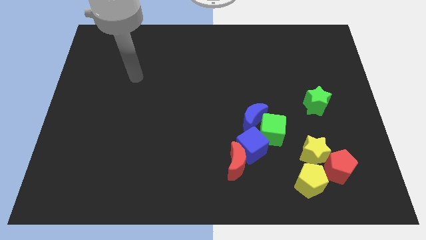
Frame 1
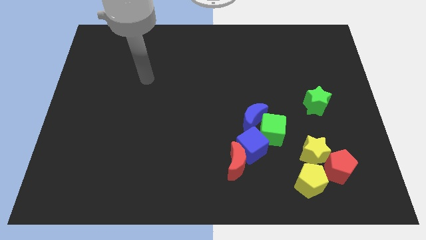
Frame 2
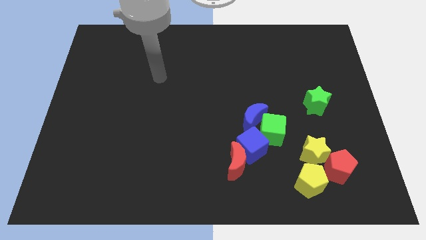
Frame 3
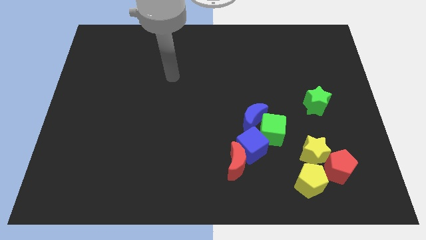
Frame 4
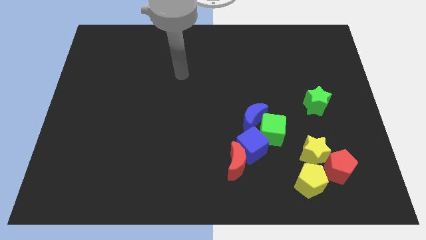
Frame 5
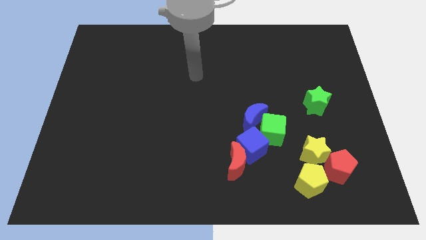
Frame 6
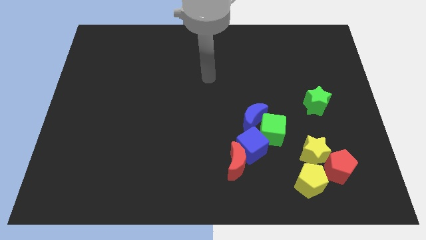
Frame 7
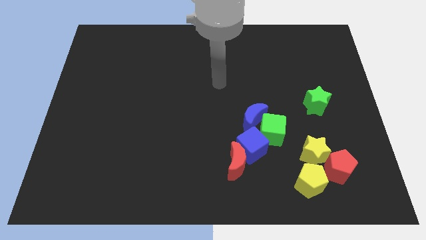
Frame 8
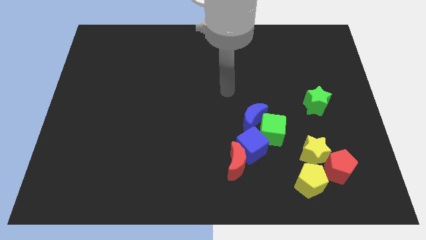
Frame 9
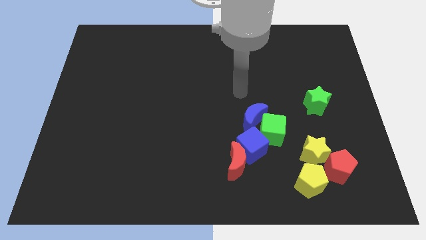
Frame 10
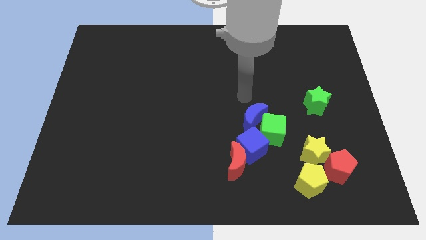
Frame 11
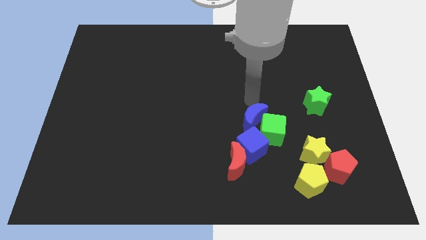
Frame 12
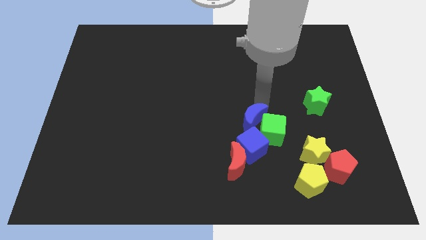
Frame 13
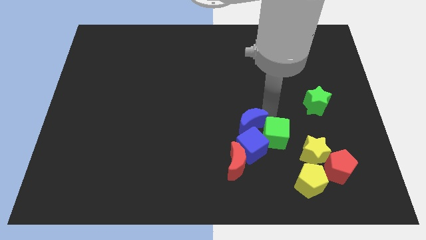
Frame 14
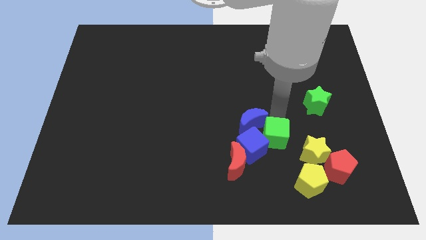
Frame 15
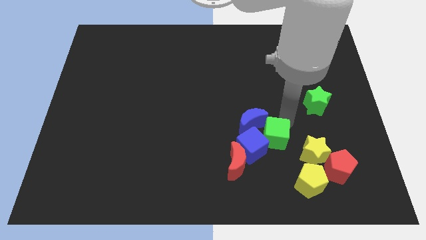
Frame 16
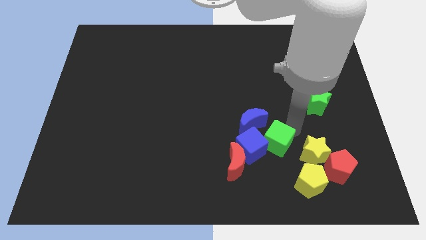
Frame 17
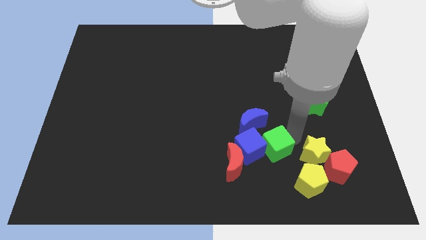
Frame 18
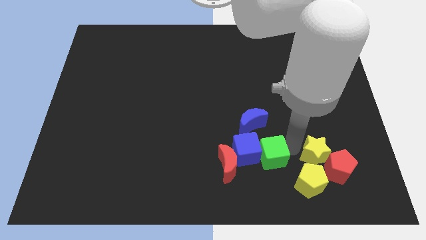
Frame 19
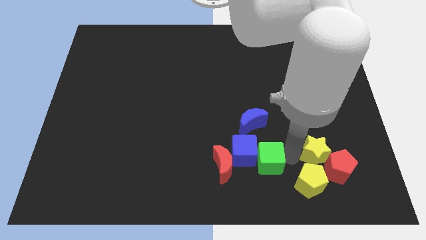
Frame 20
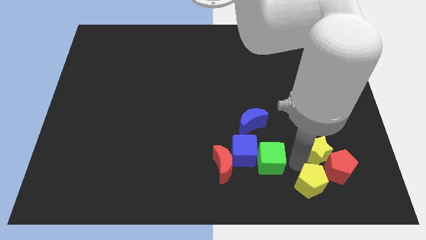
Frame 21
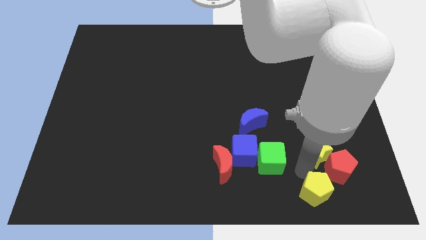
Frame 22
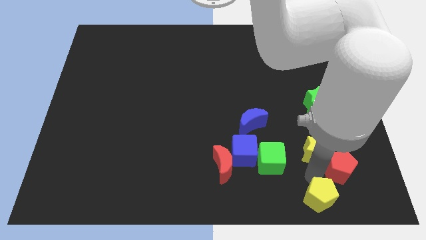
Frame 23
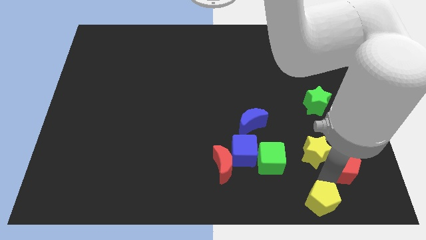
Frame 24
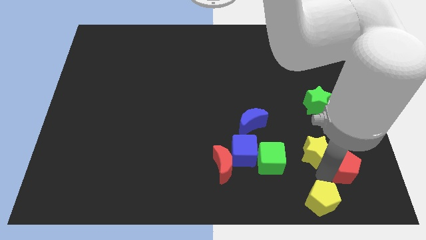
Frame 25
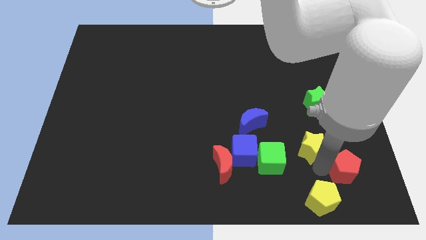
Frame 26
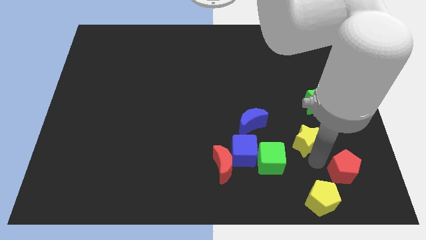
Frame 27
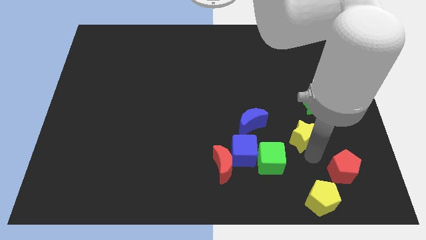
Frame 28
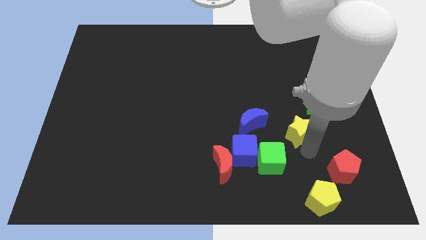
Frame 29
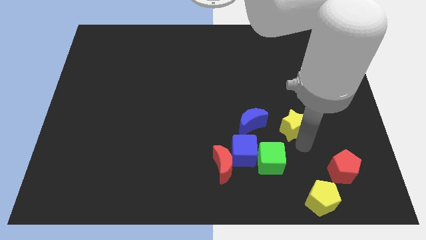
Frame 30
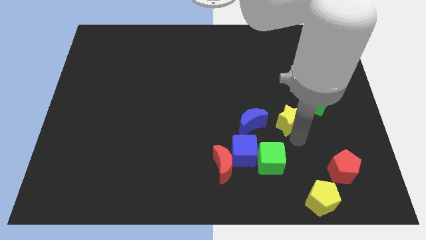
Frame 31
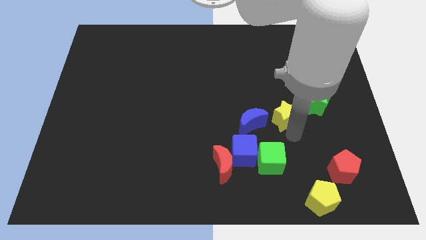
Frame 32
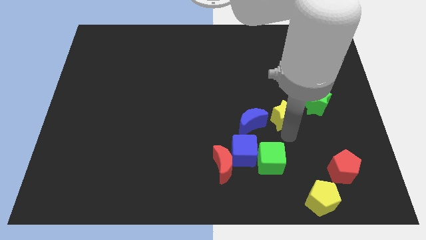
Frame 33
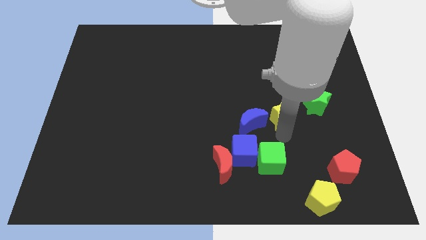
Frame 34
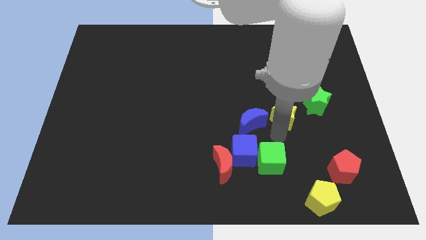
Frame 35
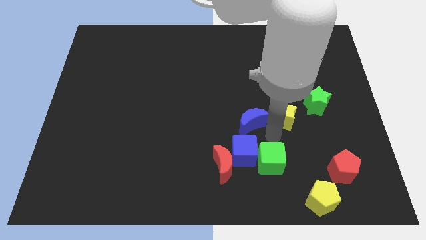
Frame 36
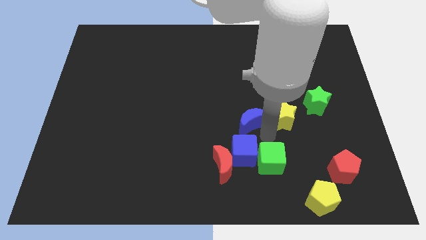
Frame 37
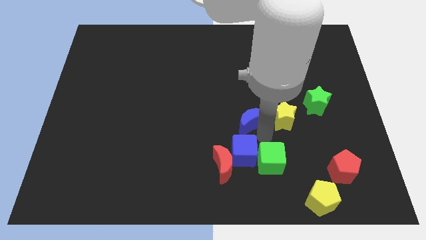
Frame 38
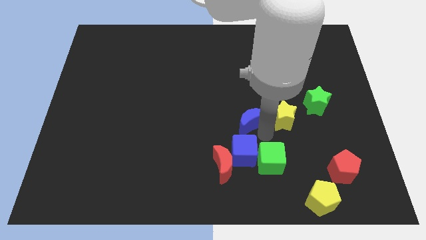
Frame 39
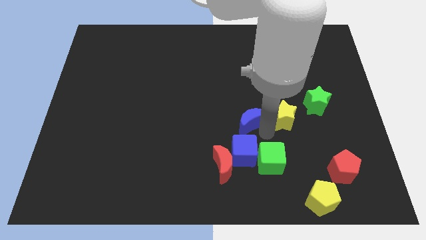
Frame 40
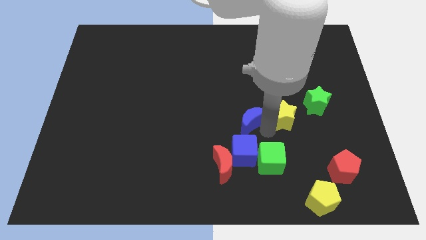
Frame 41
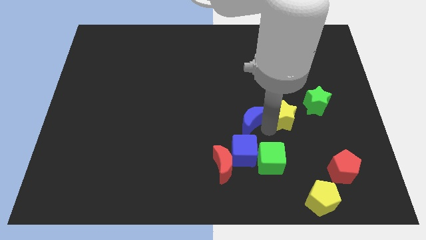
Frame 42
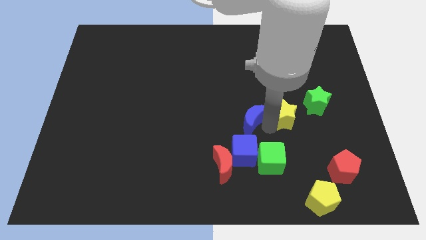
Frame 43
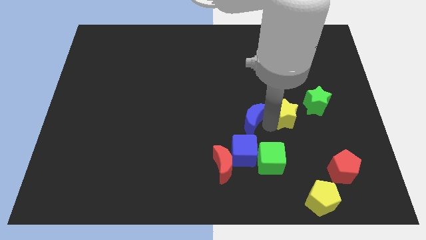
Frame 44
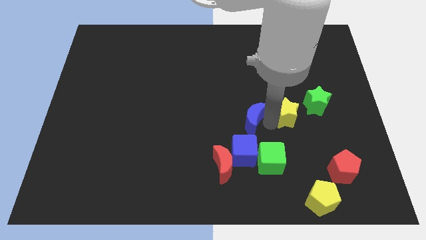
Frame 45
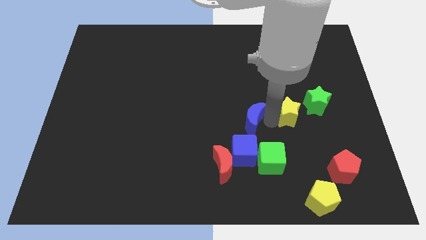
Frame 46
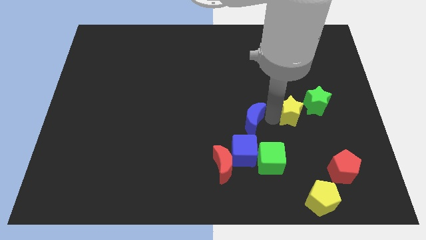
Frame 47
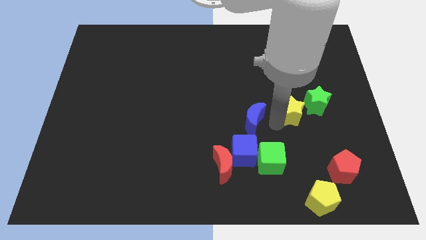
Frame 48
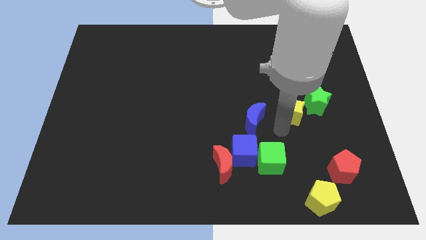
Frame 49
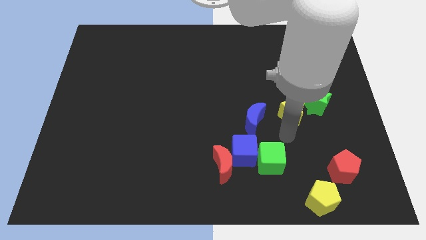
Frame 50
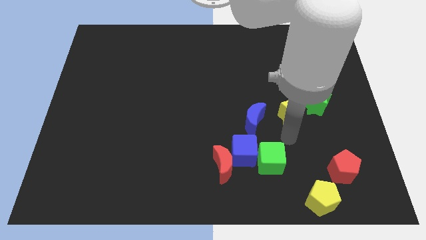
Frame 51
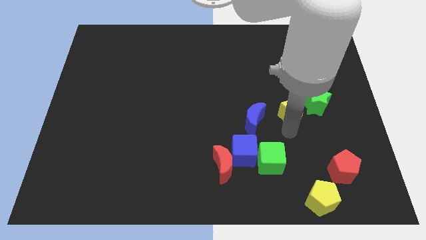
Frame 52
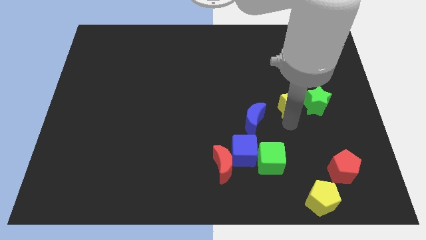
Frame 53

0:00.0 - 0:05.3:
put the yellow star to the top left side of the green star

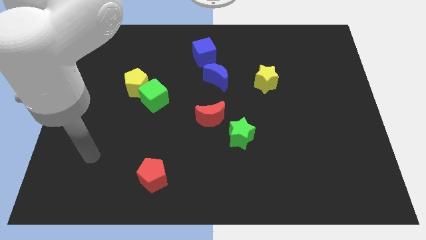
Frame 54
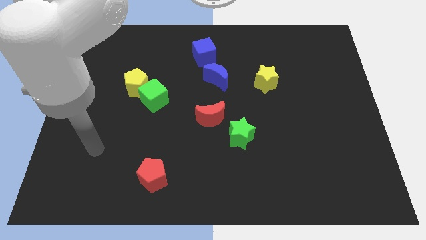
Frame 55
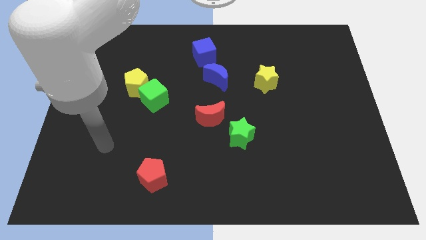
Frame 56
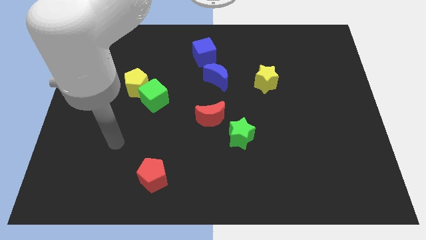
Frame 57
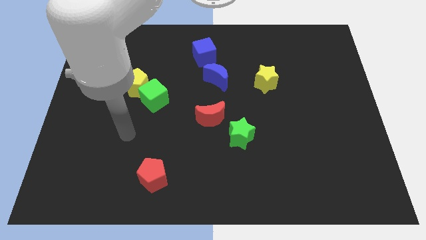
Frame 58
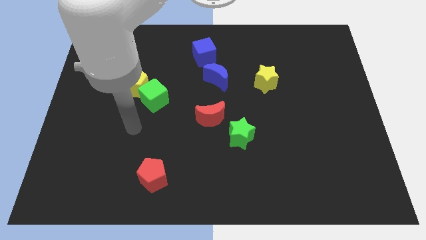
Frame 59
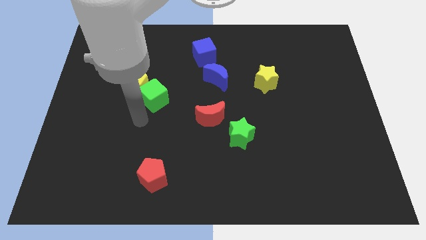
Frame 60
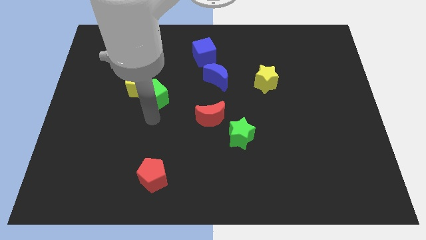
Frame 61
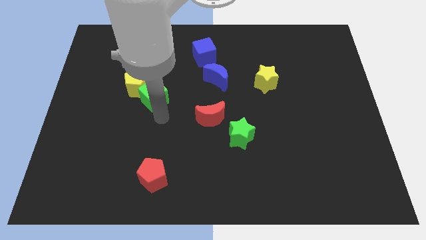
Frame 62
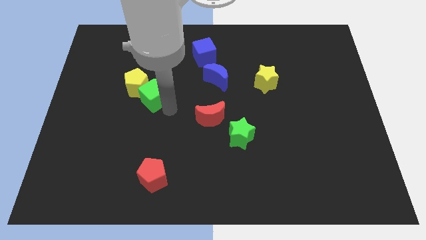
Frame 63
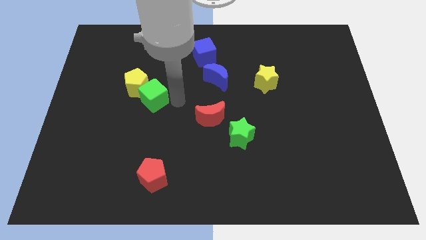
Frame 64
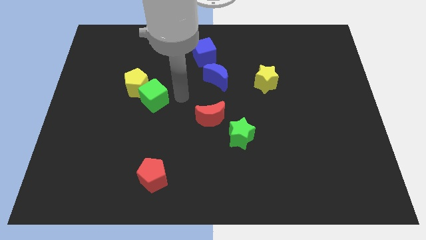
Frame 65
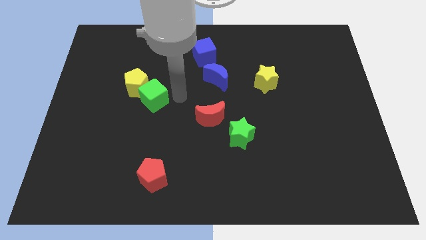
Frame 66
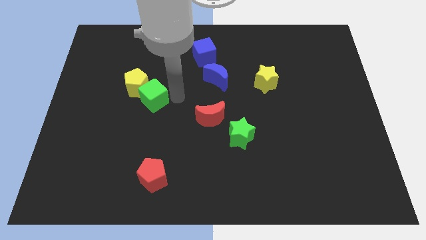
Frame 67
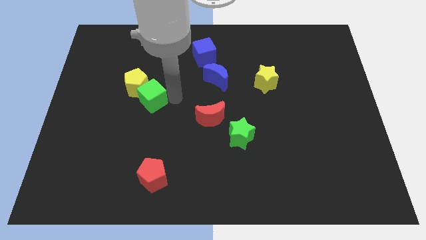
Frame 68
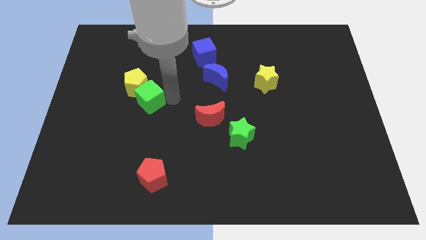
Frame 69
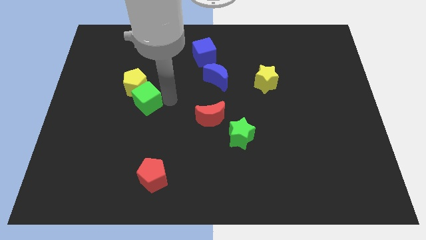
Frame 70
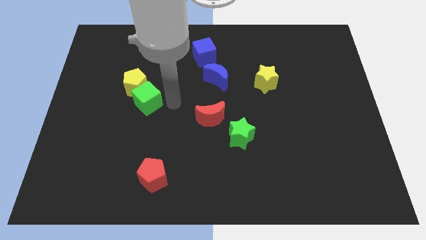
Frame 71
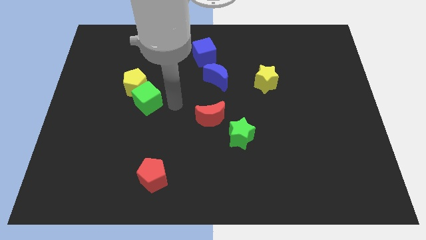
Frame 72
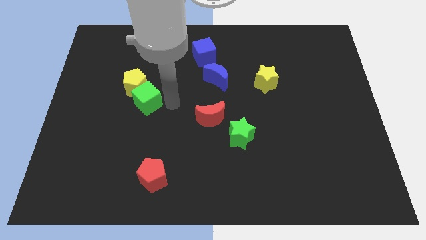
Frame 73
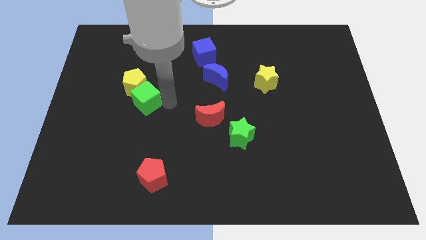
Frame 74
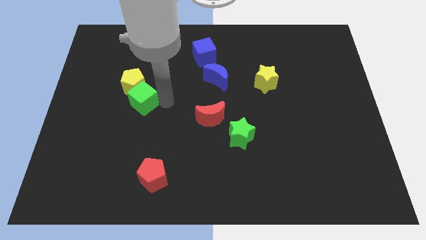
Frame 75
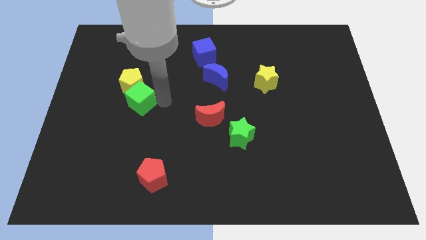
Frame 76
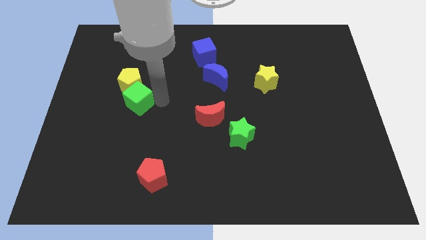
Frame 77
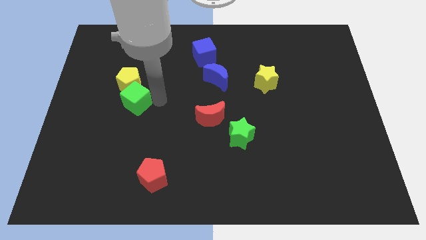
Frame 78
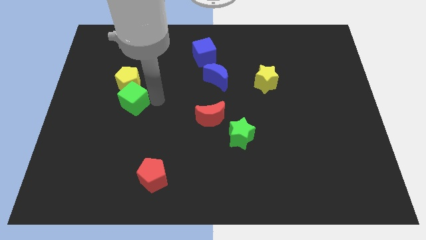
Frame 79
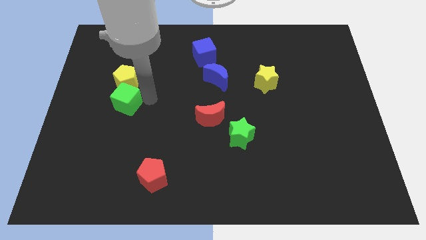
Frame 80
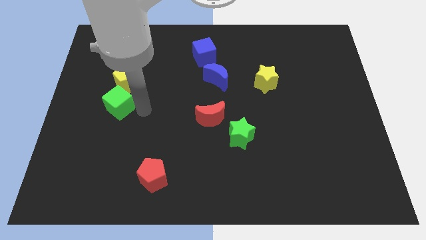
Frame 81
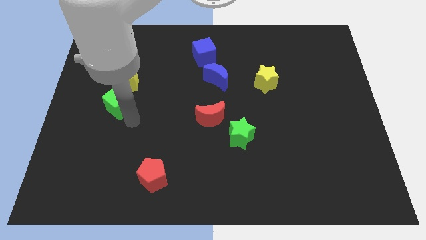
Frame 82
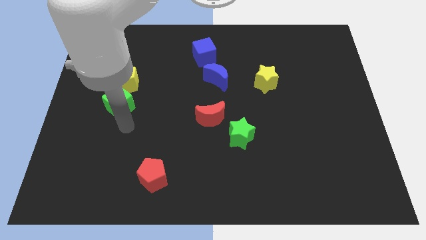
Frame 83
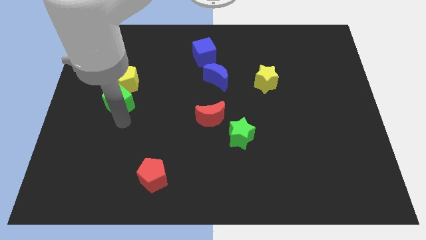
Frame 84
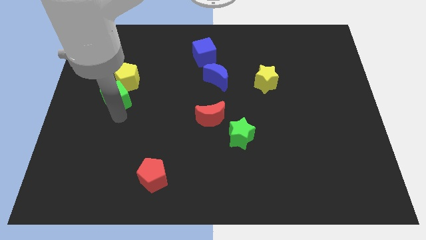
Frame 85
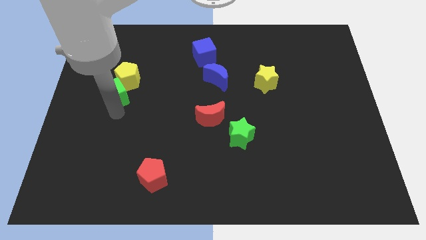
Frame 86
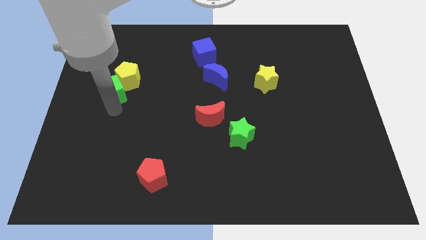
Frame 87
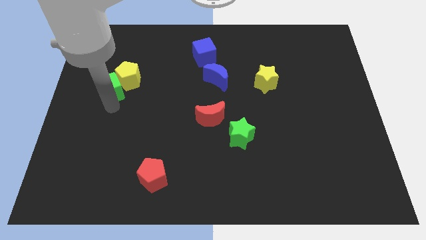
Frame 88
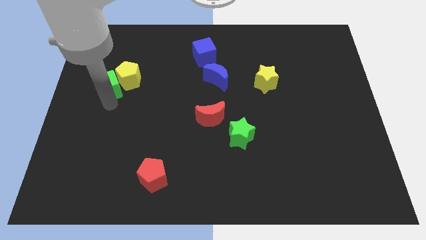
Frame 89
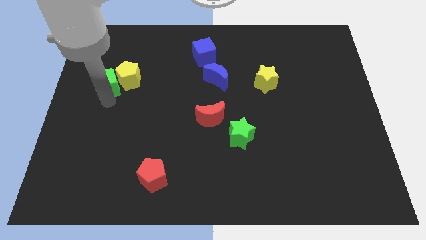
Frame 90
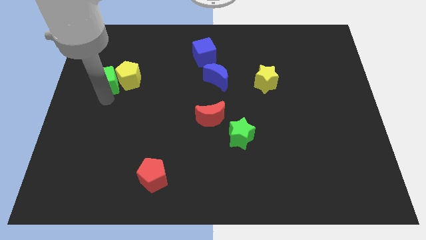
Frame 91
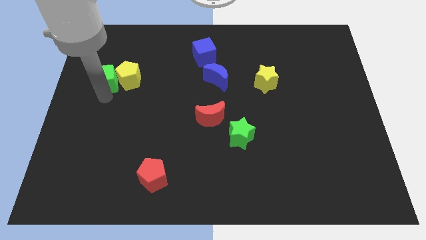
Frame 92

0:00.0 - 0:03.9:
put the green cube to the top left of the yellow pentagon
